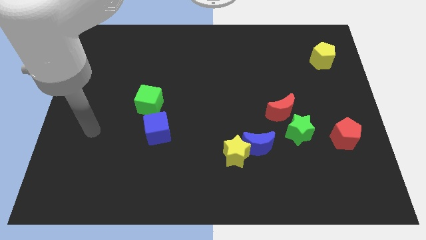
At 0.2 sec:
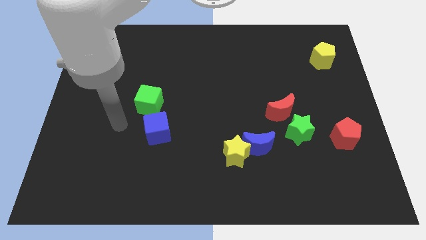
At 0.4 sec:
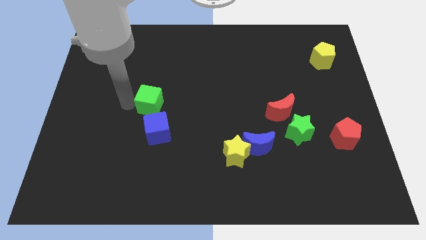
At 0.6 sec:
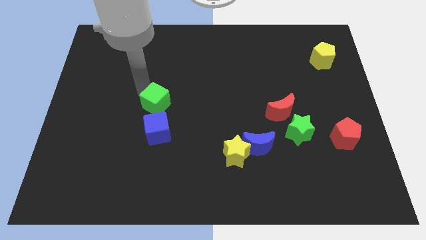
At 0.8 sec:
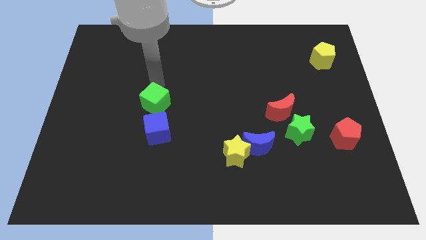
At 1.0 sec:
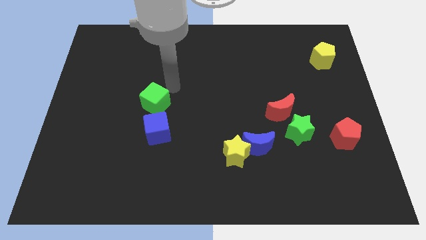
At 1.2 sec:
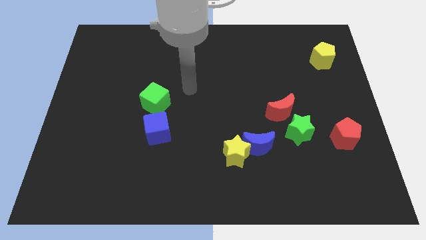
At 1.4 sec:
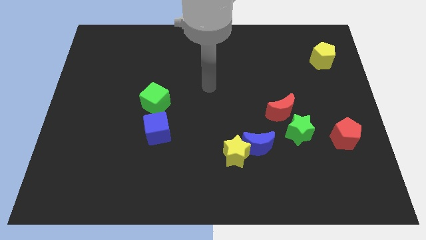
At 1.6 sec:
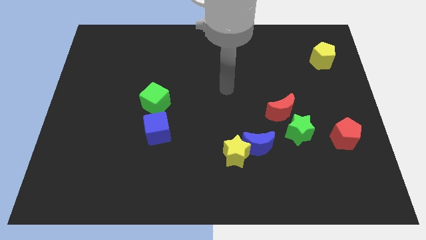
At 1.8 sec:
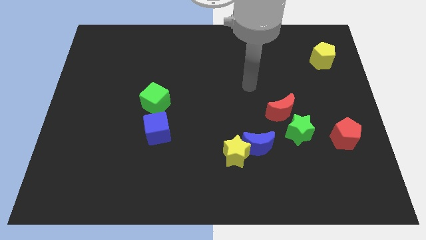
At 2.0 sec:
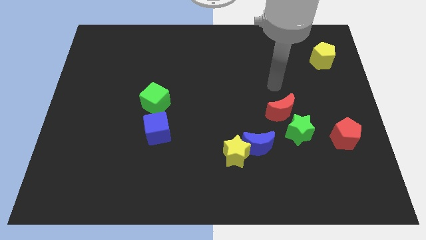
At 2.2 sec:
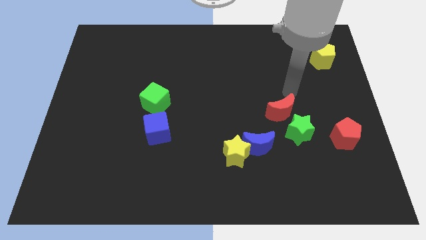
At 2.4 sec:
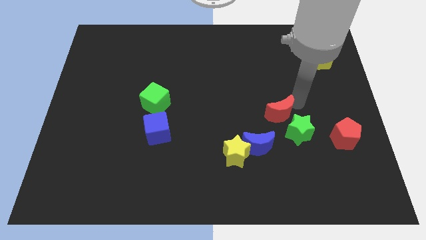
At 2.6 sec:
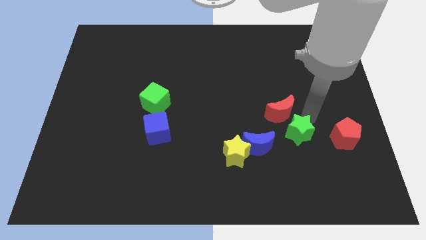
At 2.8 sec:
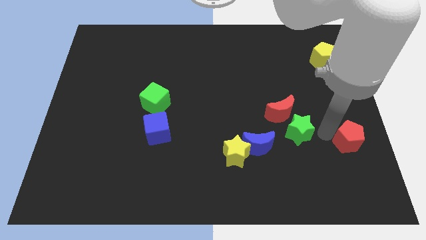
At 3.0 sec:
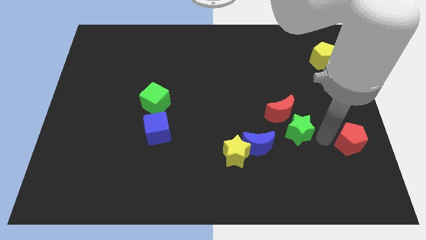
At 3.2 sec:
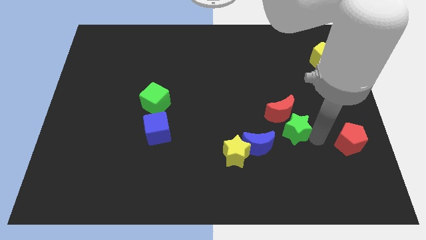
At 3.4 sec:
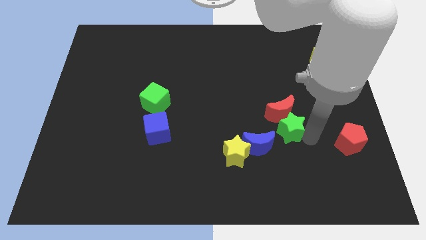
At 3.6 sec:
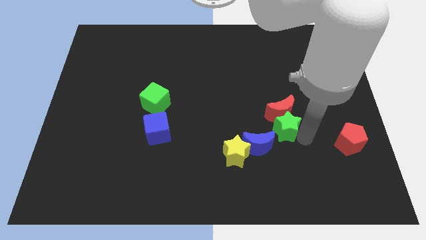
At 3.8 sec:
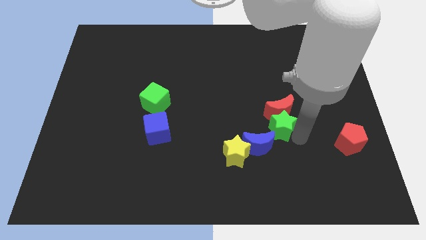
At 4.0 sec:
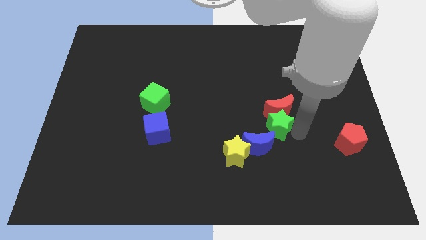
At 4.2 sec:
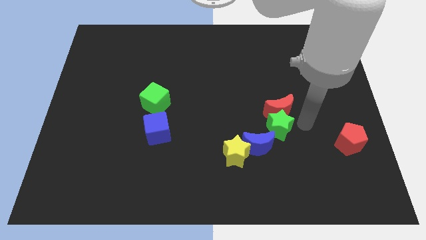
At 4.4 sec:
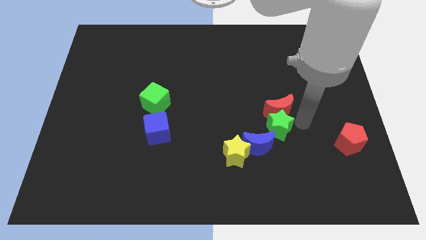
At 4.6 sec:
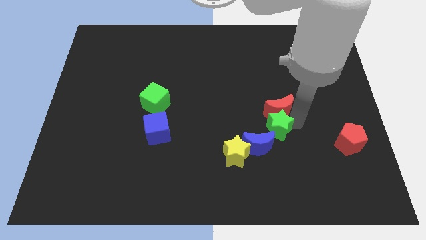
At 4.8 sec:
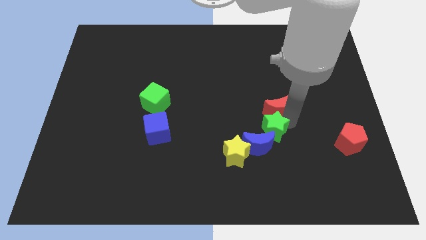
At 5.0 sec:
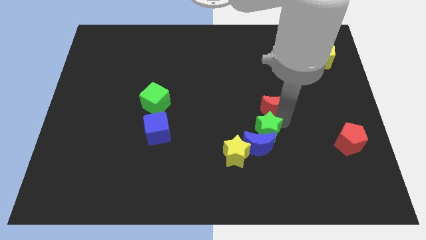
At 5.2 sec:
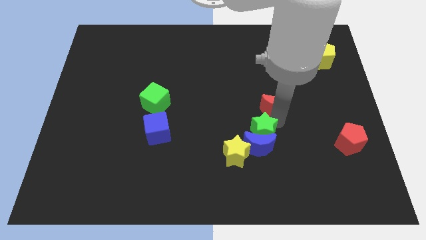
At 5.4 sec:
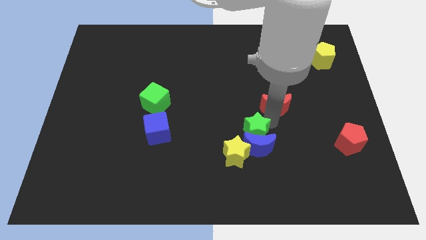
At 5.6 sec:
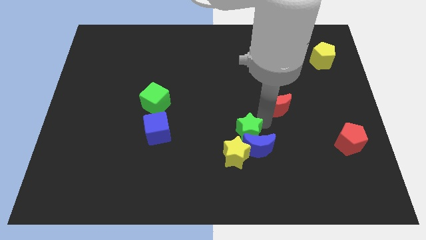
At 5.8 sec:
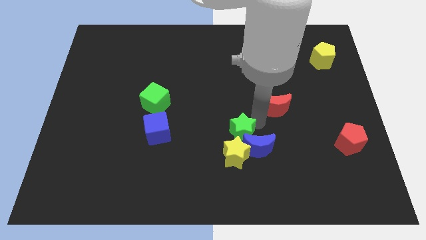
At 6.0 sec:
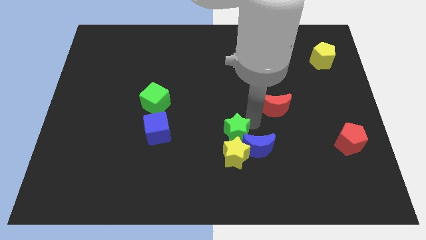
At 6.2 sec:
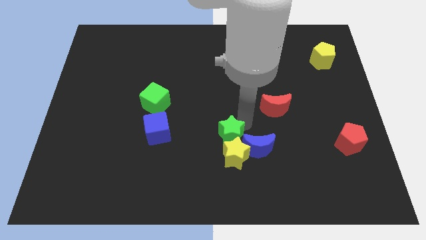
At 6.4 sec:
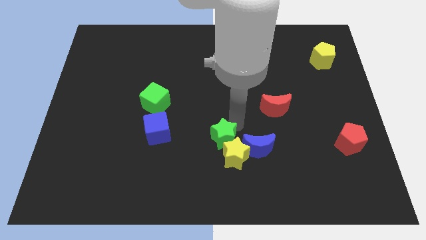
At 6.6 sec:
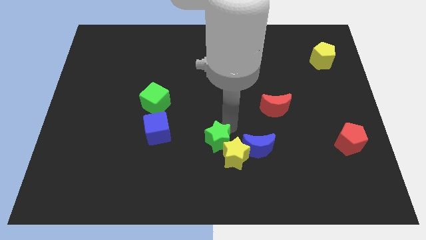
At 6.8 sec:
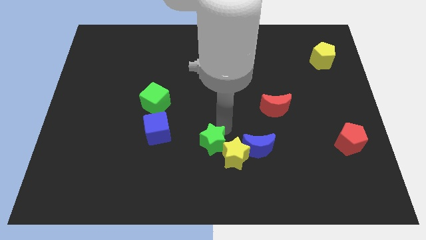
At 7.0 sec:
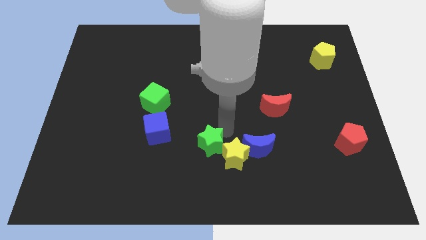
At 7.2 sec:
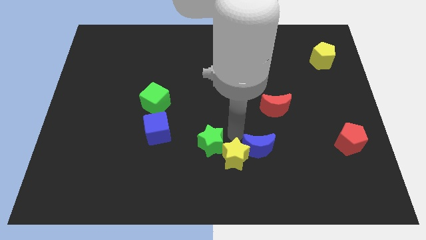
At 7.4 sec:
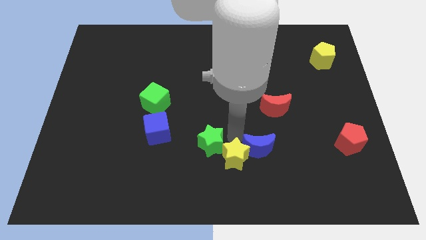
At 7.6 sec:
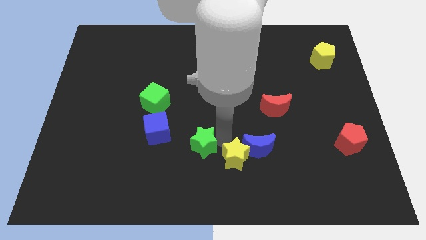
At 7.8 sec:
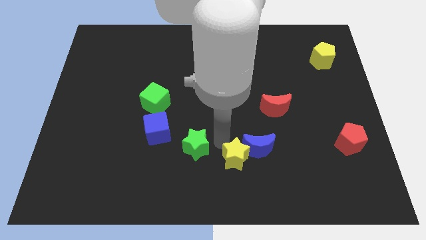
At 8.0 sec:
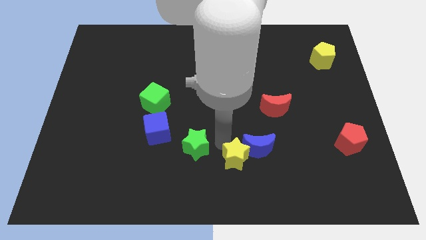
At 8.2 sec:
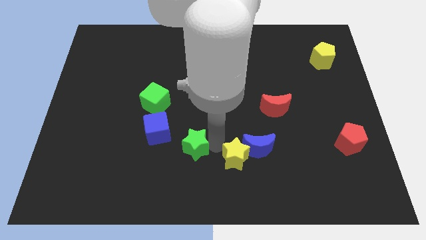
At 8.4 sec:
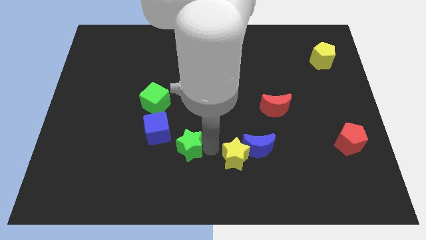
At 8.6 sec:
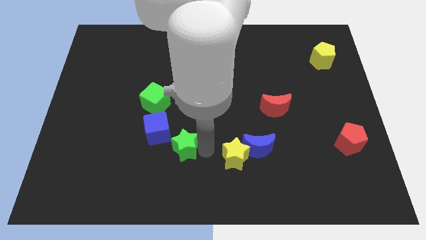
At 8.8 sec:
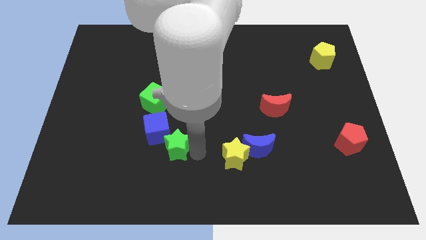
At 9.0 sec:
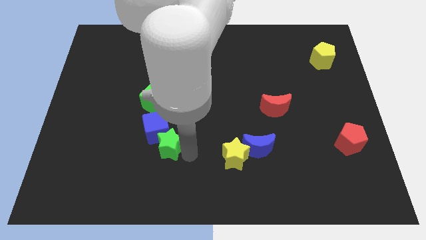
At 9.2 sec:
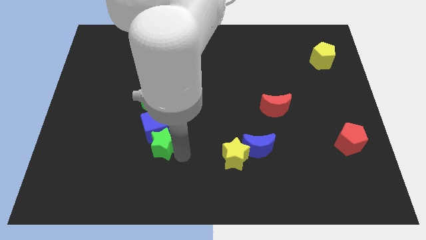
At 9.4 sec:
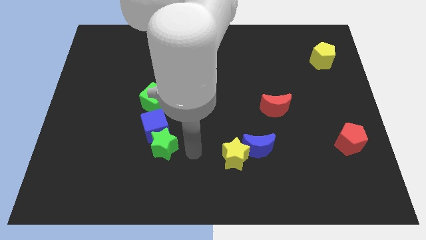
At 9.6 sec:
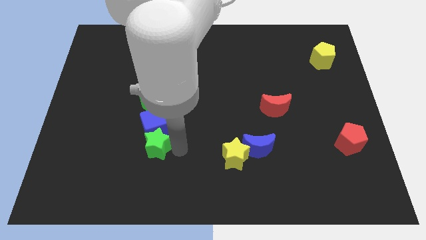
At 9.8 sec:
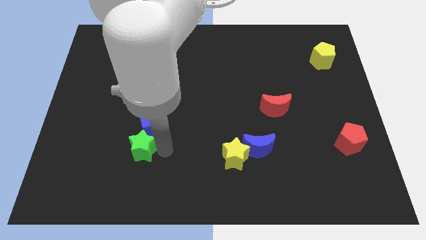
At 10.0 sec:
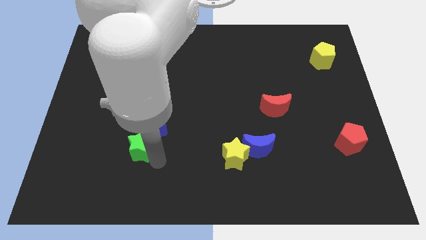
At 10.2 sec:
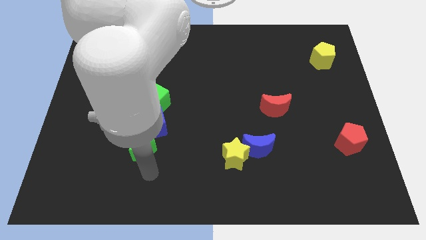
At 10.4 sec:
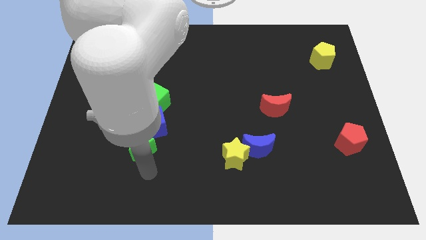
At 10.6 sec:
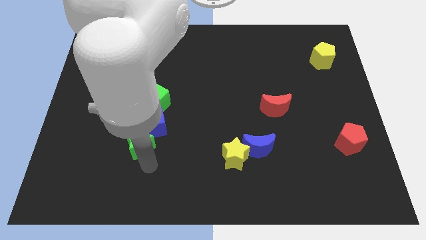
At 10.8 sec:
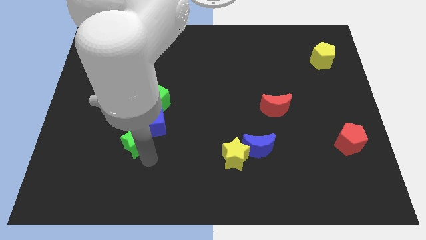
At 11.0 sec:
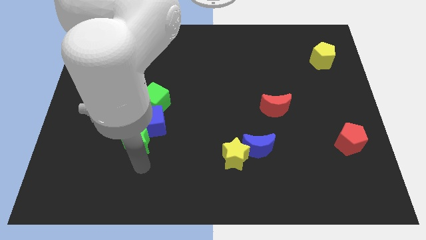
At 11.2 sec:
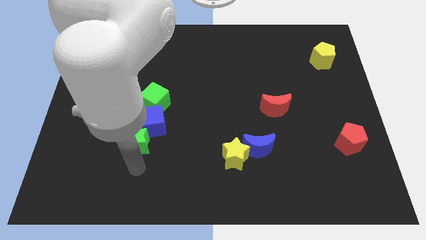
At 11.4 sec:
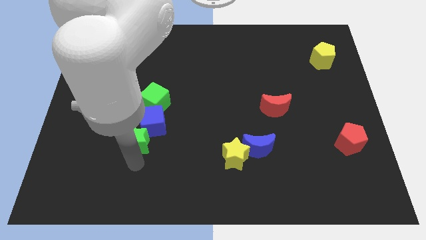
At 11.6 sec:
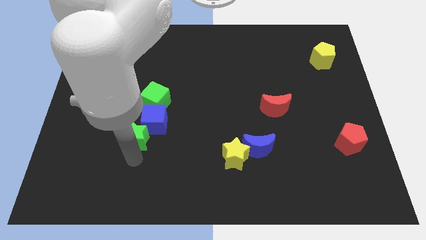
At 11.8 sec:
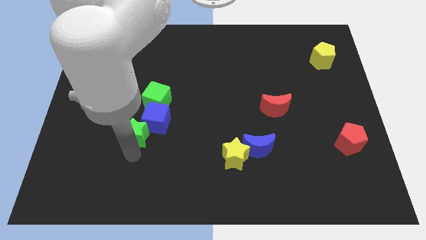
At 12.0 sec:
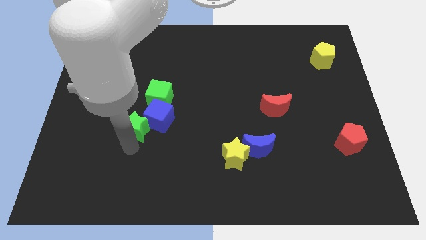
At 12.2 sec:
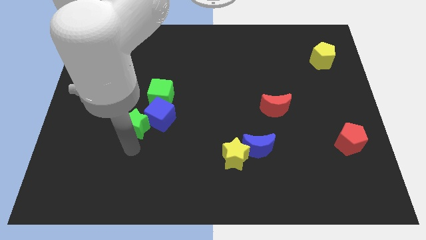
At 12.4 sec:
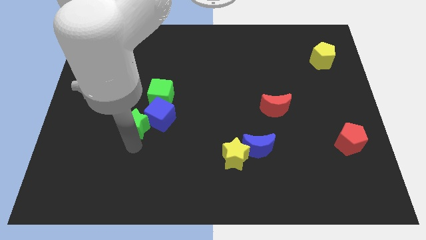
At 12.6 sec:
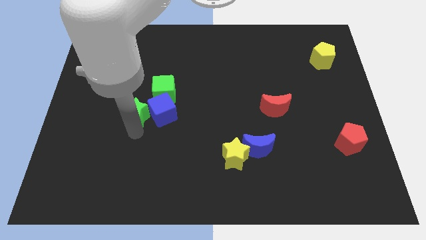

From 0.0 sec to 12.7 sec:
slide the green star to the top left side of the blue cube
